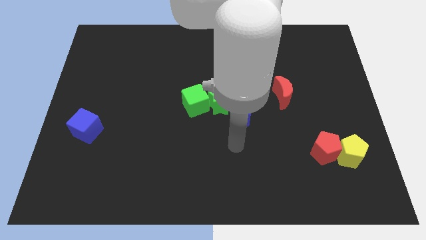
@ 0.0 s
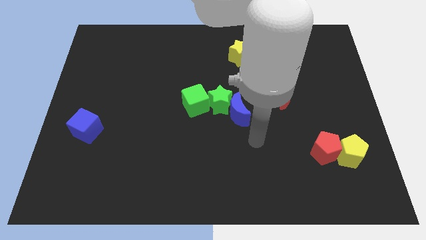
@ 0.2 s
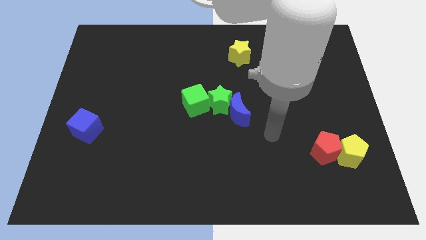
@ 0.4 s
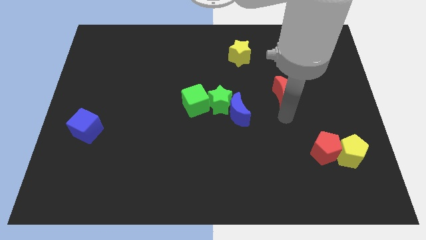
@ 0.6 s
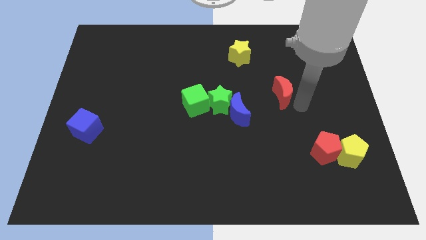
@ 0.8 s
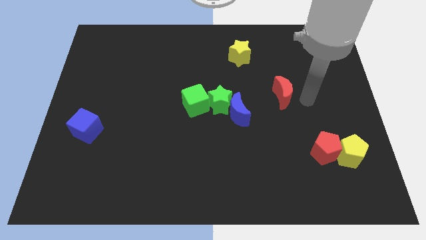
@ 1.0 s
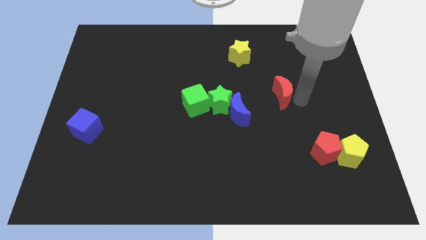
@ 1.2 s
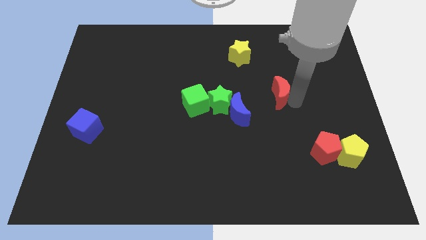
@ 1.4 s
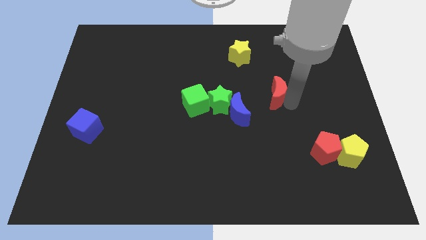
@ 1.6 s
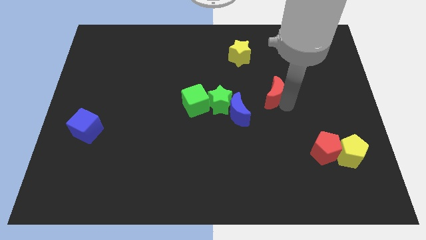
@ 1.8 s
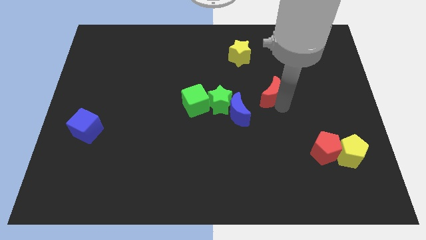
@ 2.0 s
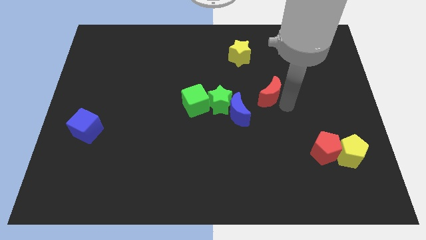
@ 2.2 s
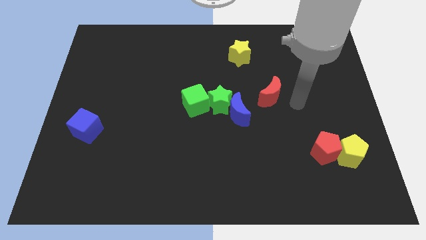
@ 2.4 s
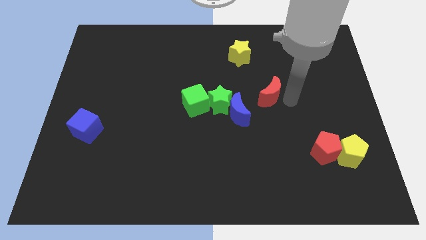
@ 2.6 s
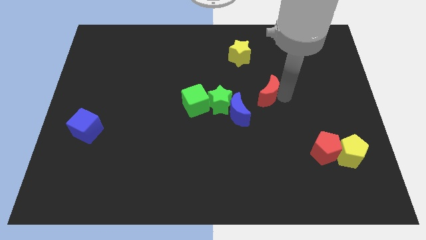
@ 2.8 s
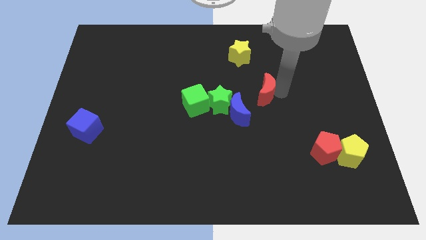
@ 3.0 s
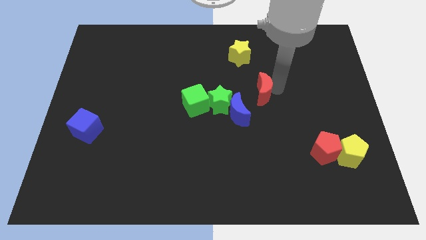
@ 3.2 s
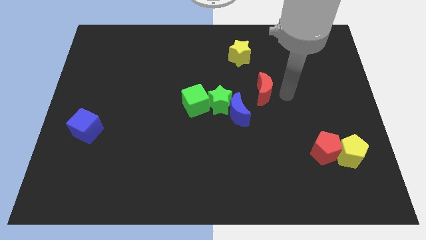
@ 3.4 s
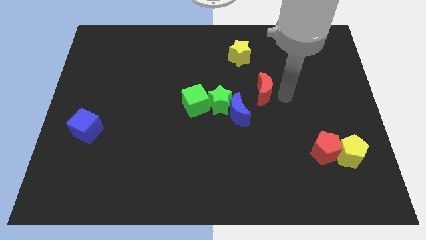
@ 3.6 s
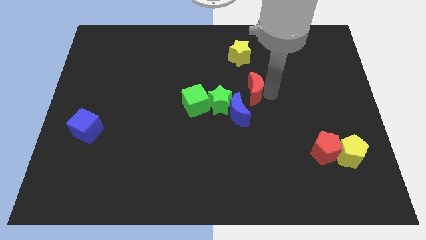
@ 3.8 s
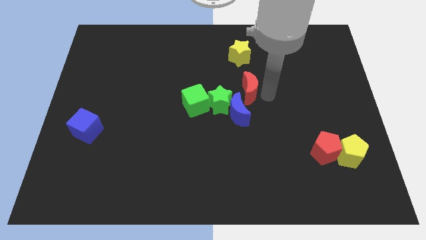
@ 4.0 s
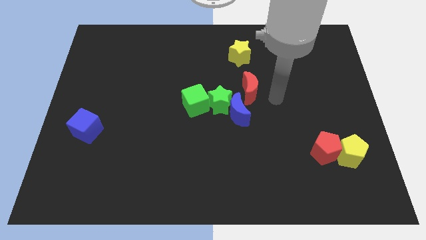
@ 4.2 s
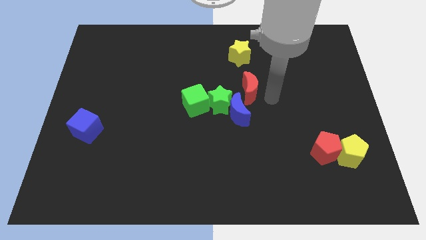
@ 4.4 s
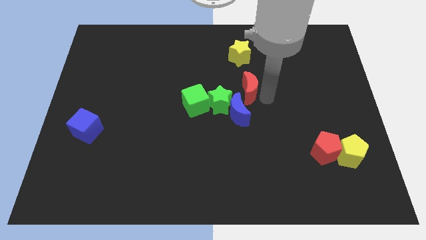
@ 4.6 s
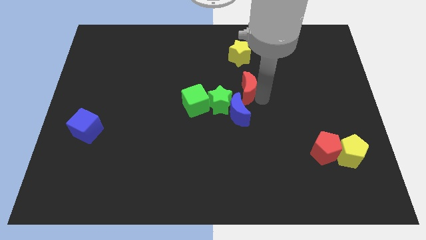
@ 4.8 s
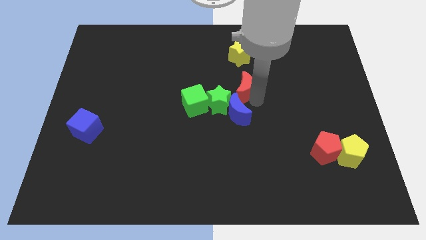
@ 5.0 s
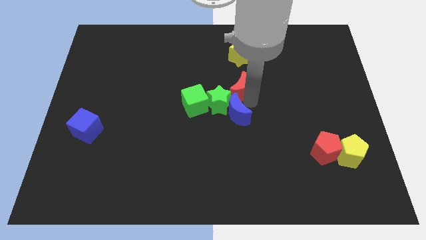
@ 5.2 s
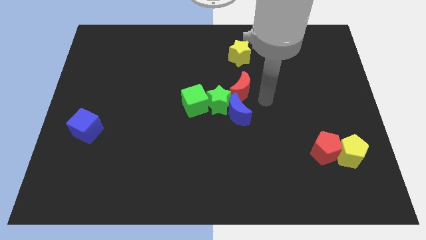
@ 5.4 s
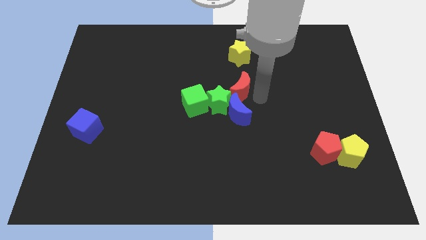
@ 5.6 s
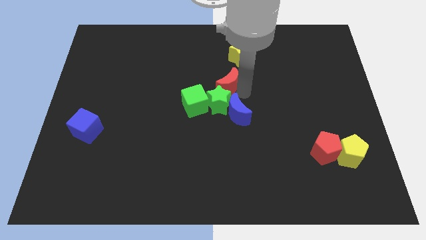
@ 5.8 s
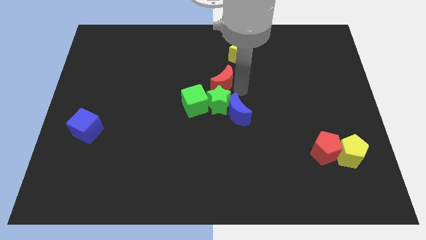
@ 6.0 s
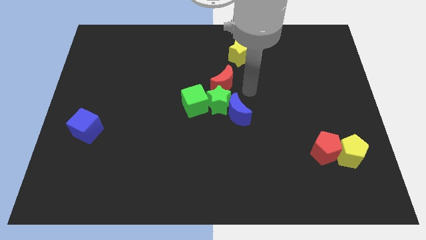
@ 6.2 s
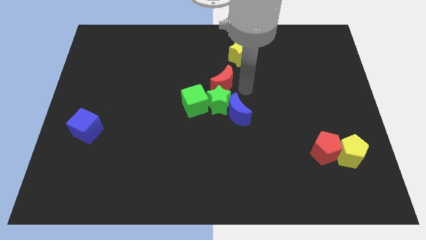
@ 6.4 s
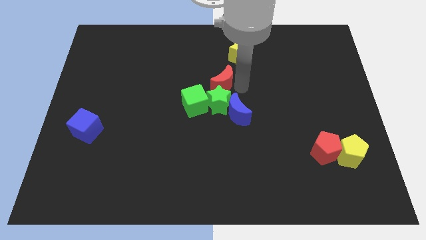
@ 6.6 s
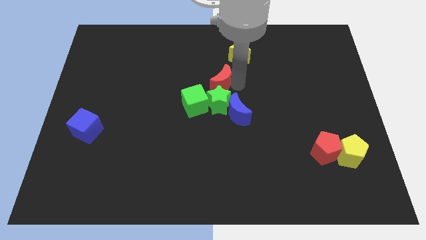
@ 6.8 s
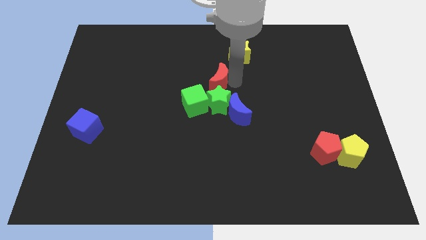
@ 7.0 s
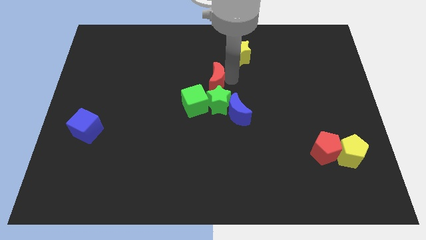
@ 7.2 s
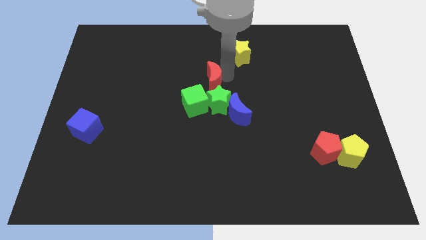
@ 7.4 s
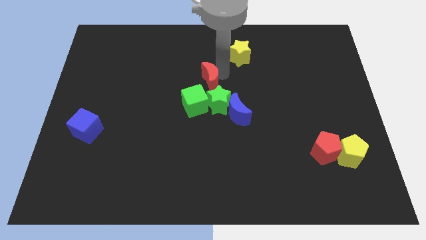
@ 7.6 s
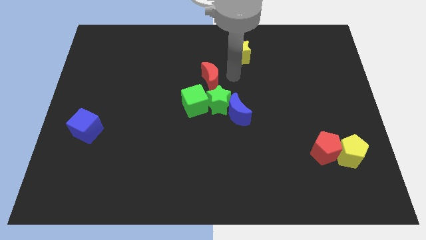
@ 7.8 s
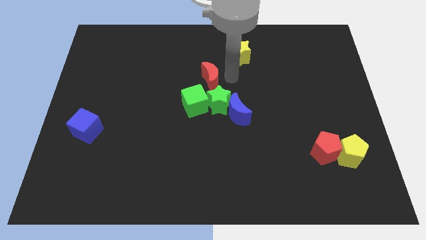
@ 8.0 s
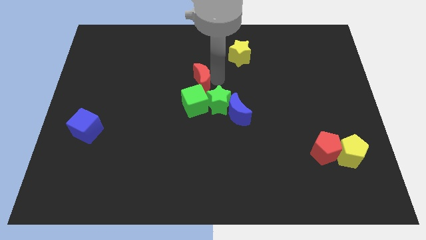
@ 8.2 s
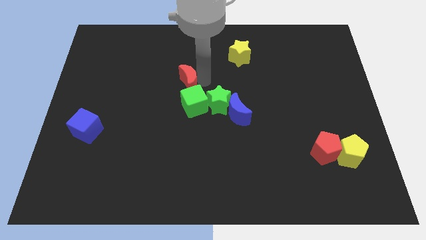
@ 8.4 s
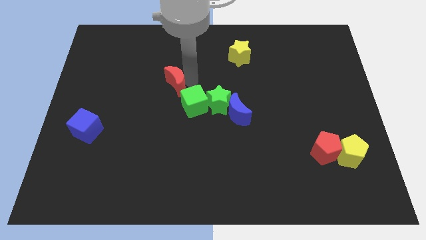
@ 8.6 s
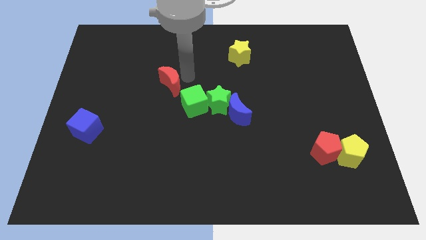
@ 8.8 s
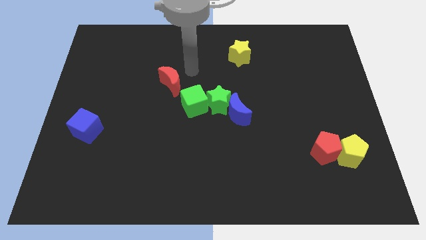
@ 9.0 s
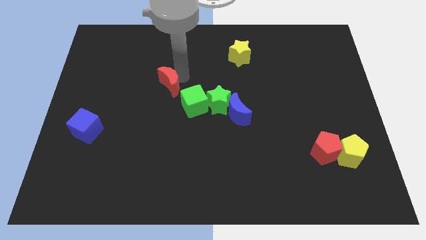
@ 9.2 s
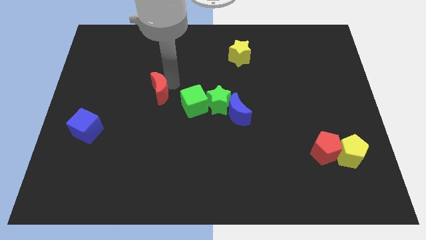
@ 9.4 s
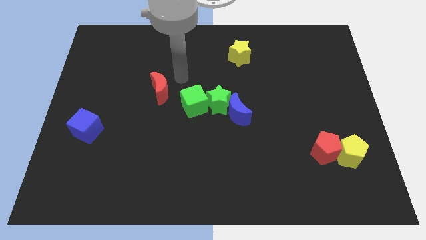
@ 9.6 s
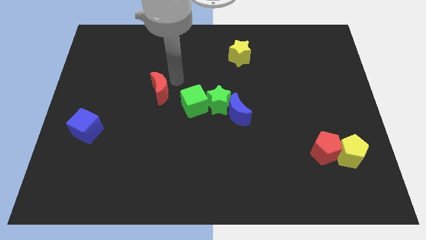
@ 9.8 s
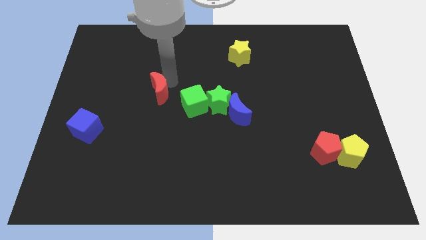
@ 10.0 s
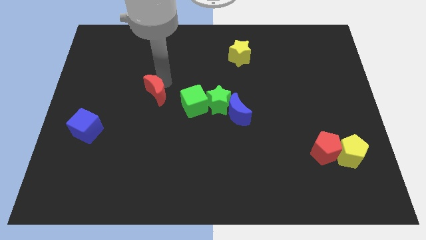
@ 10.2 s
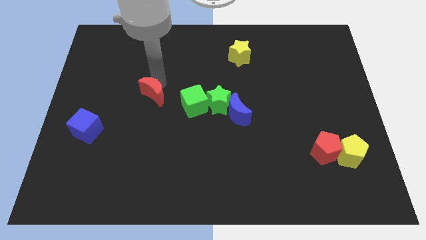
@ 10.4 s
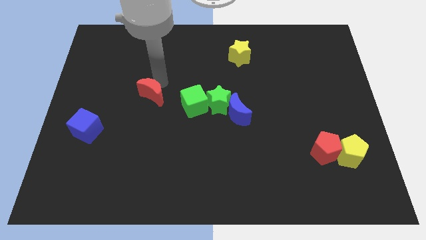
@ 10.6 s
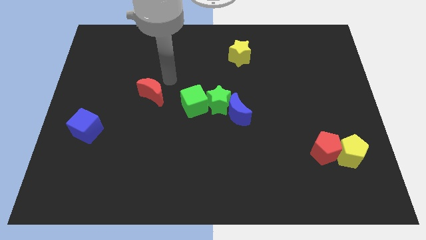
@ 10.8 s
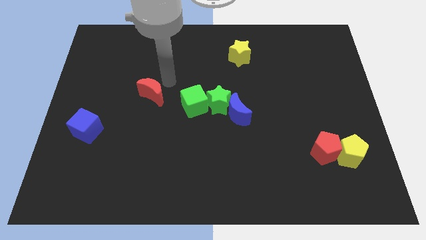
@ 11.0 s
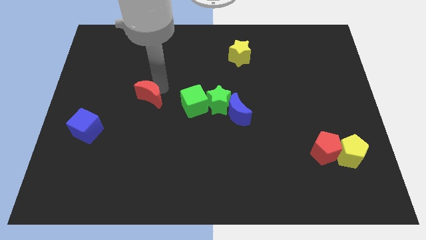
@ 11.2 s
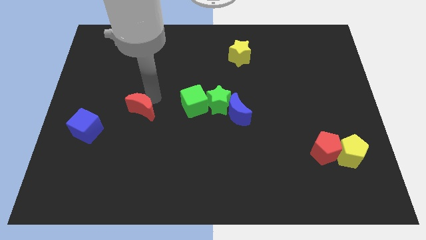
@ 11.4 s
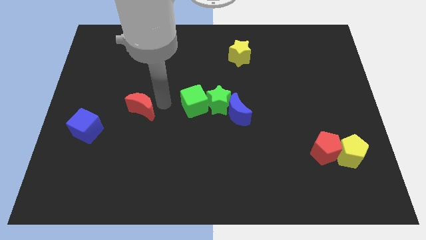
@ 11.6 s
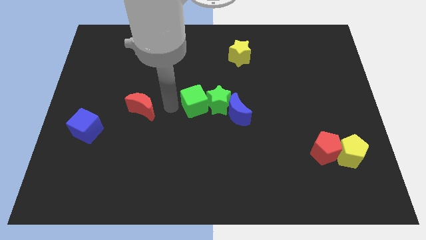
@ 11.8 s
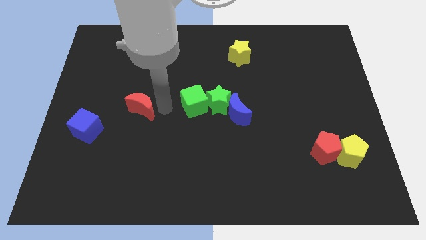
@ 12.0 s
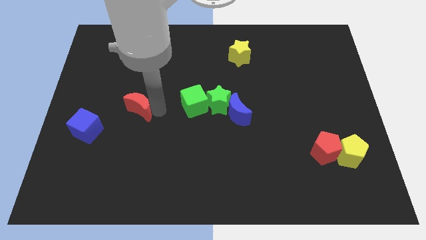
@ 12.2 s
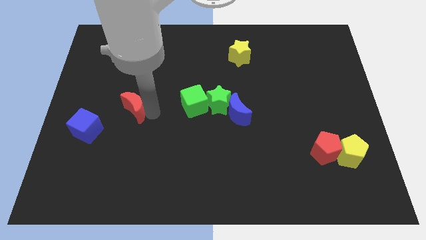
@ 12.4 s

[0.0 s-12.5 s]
put the red moon to the top right of the blue cube

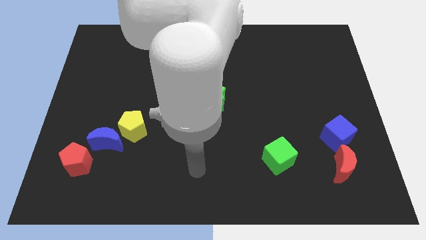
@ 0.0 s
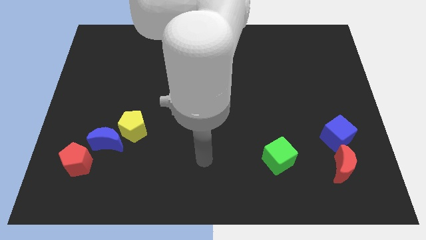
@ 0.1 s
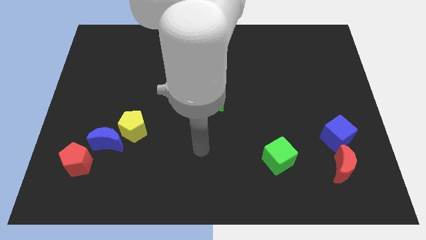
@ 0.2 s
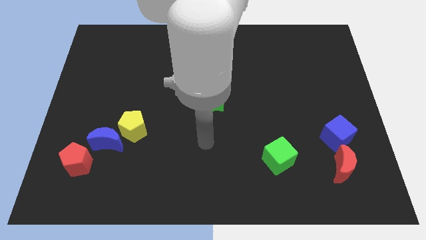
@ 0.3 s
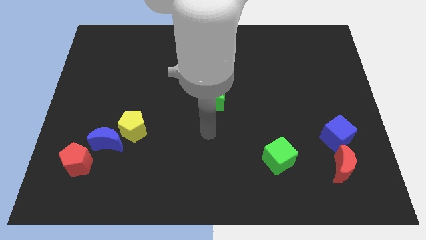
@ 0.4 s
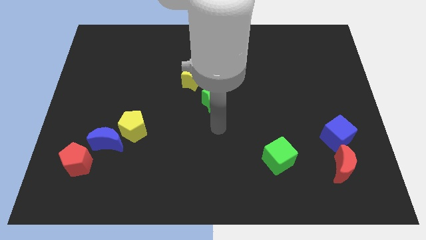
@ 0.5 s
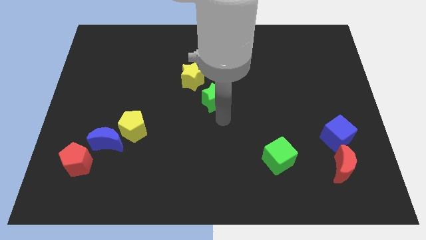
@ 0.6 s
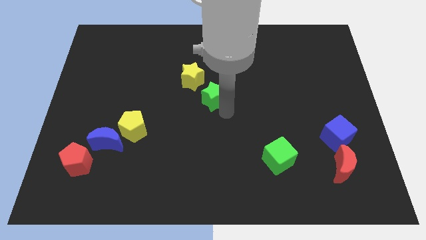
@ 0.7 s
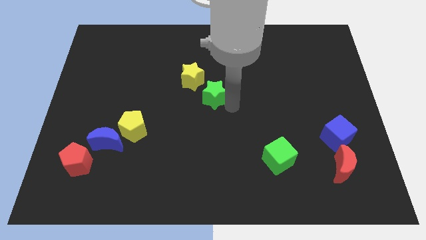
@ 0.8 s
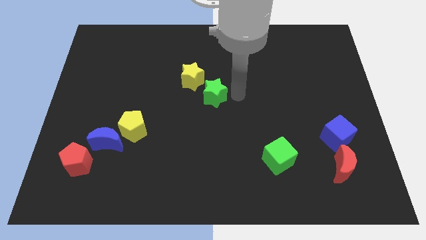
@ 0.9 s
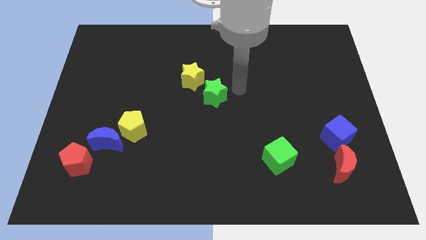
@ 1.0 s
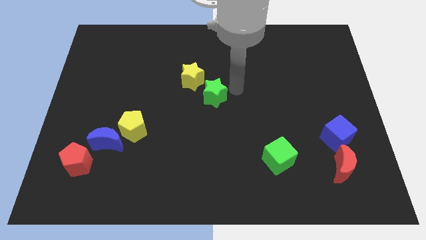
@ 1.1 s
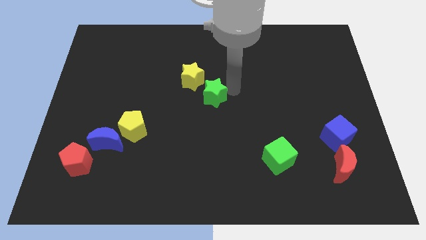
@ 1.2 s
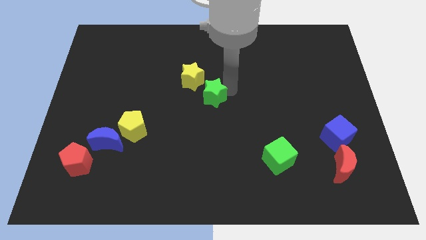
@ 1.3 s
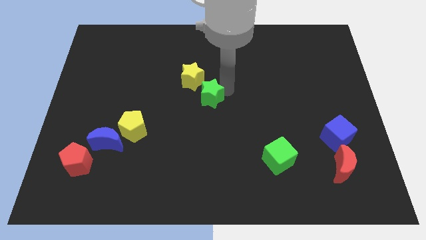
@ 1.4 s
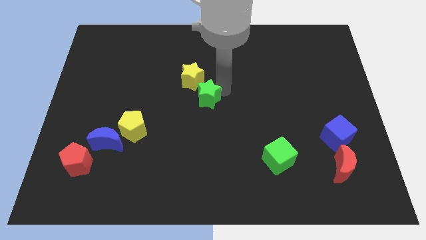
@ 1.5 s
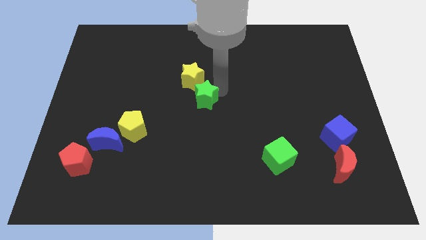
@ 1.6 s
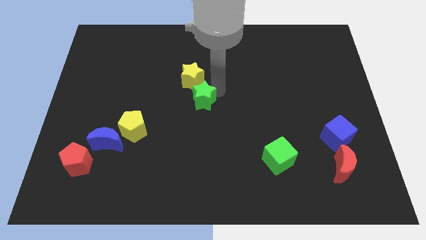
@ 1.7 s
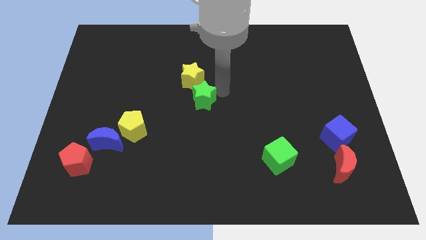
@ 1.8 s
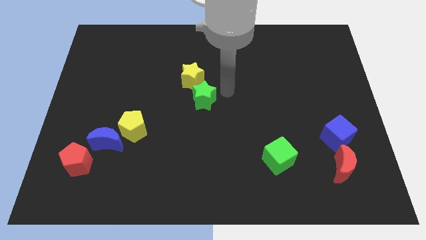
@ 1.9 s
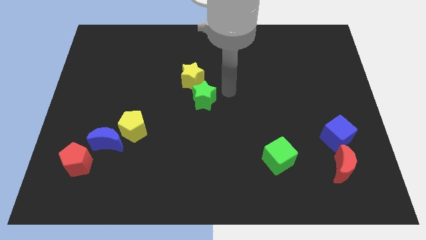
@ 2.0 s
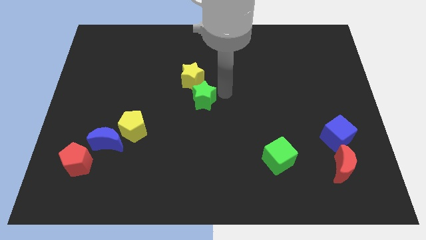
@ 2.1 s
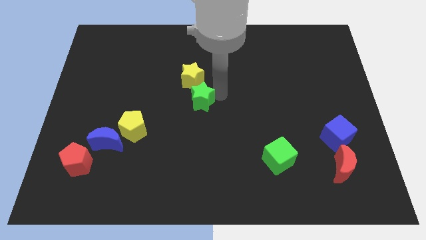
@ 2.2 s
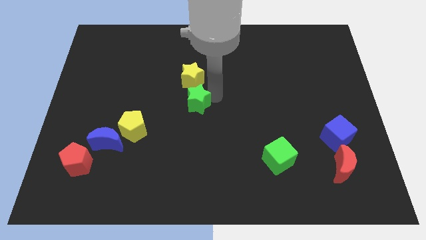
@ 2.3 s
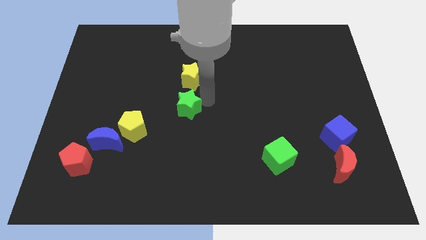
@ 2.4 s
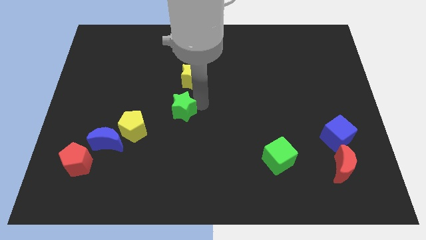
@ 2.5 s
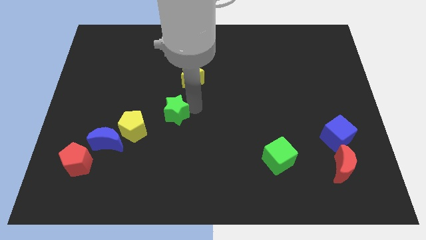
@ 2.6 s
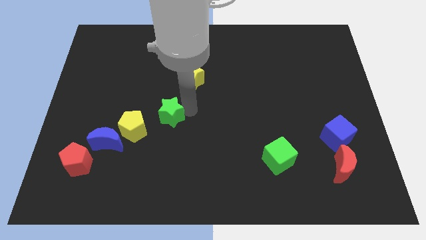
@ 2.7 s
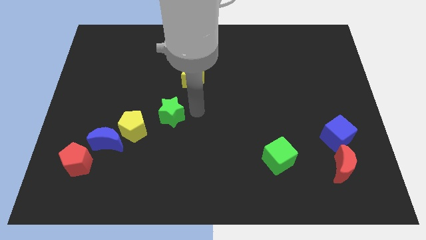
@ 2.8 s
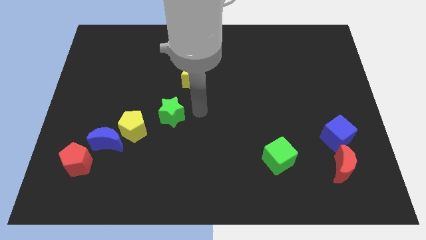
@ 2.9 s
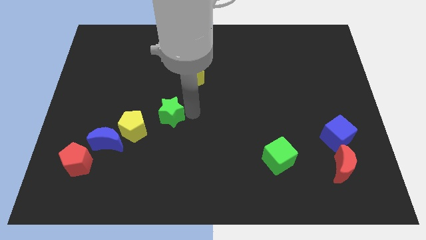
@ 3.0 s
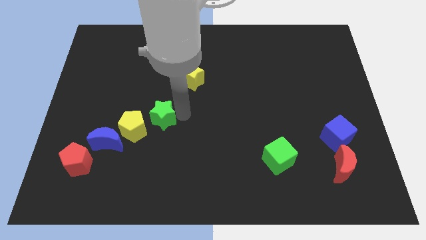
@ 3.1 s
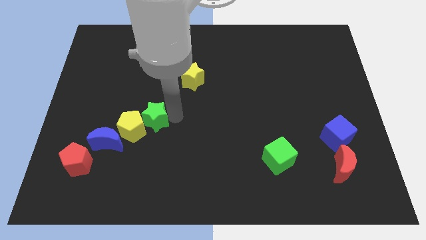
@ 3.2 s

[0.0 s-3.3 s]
move the green star diagonally up and to the right of the blue moon
